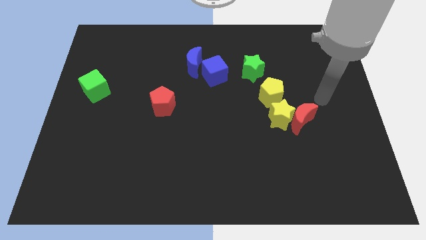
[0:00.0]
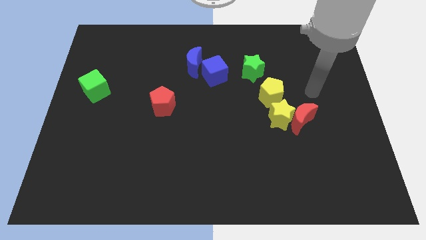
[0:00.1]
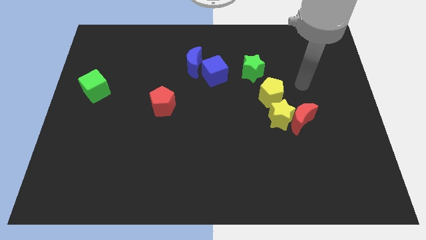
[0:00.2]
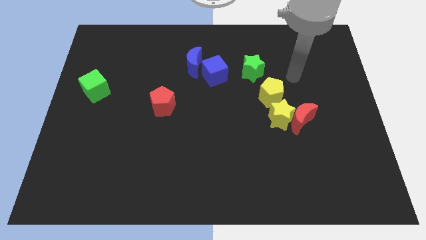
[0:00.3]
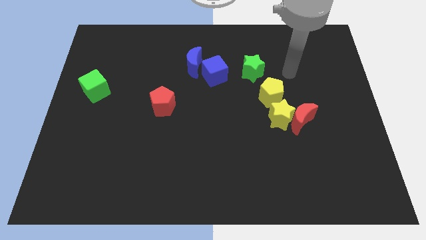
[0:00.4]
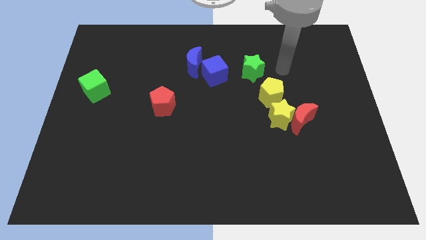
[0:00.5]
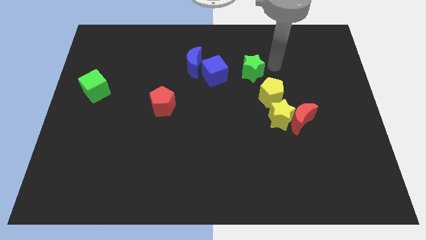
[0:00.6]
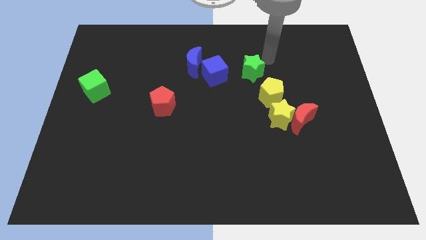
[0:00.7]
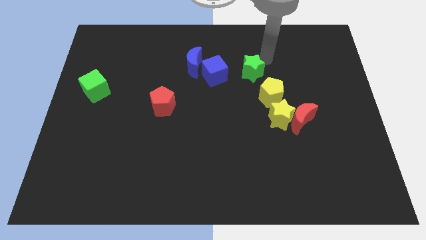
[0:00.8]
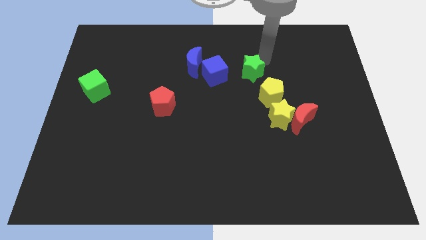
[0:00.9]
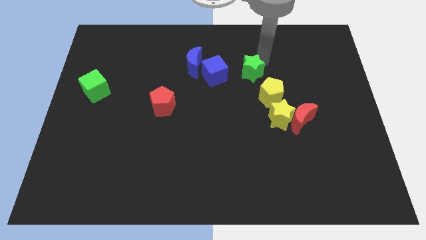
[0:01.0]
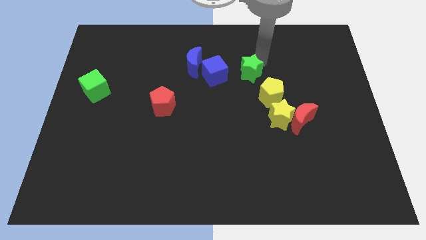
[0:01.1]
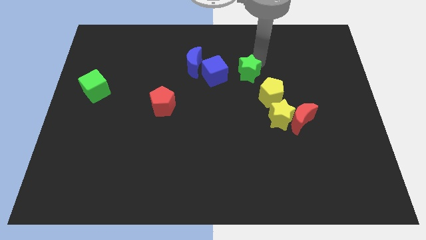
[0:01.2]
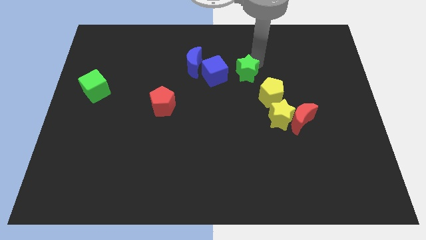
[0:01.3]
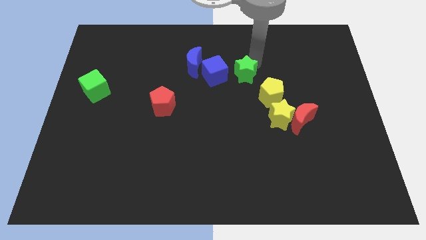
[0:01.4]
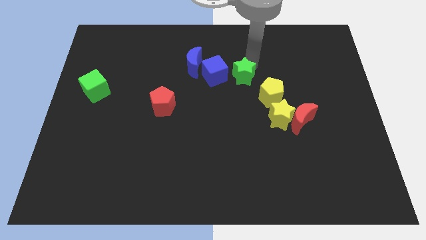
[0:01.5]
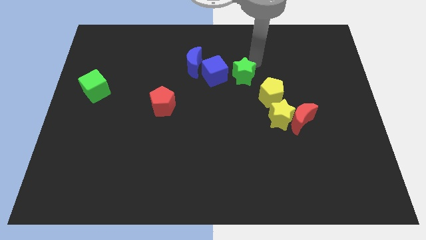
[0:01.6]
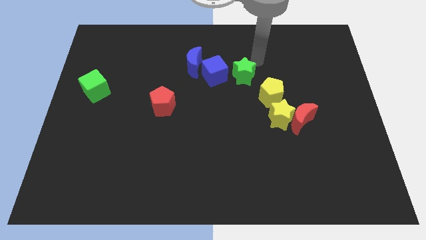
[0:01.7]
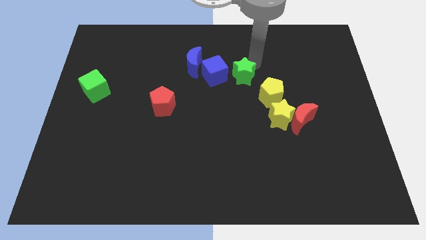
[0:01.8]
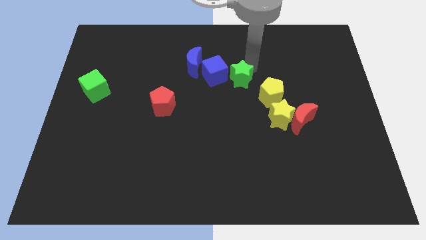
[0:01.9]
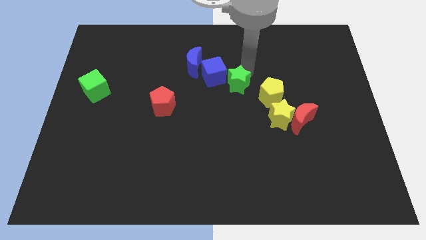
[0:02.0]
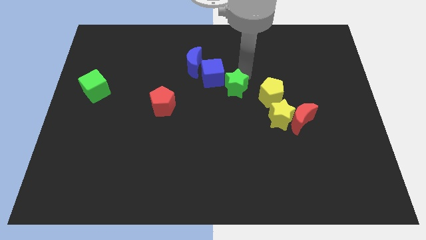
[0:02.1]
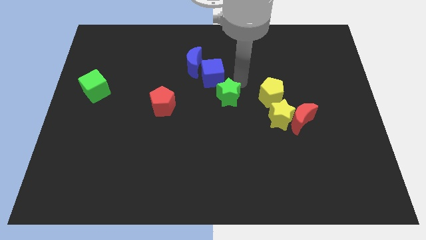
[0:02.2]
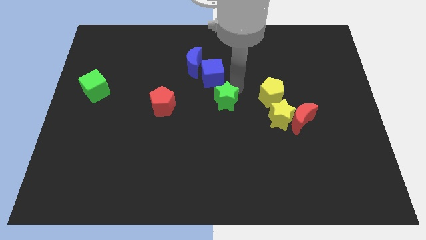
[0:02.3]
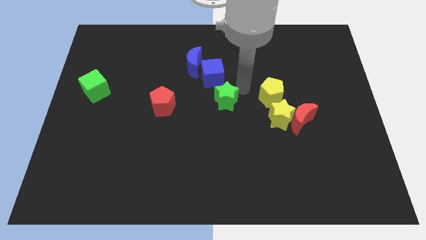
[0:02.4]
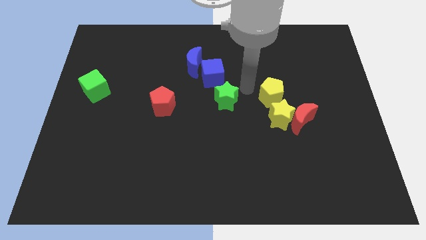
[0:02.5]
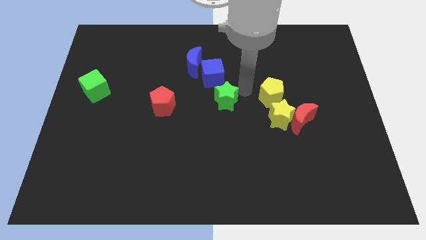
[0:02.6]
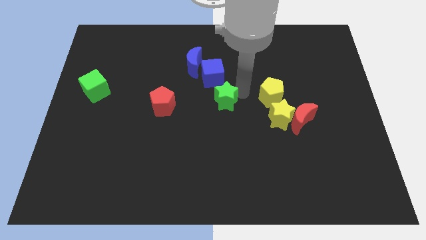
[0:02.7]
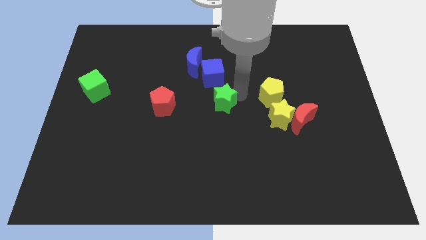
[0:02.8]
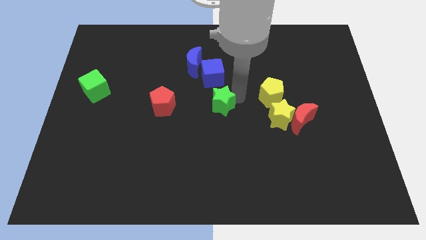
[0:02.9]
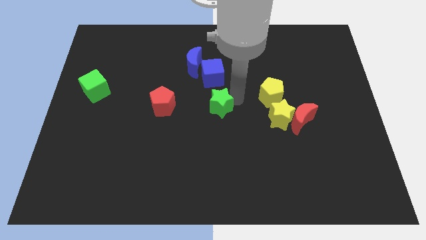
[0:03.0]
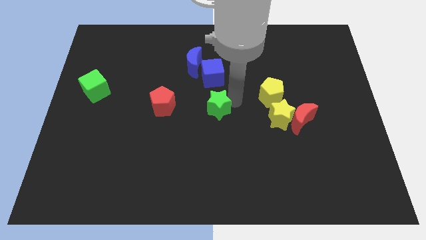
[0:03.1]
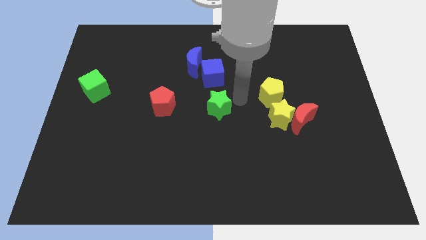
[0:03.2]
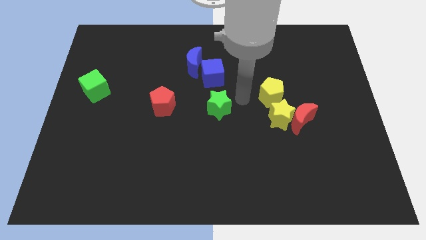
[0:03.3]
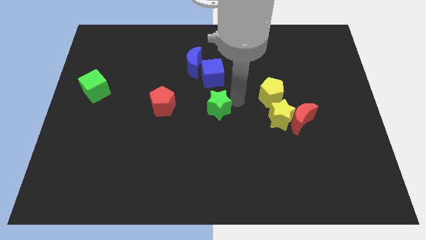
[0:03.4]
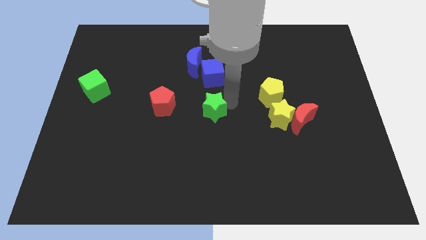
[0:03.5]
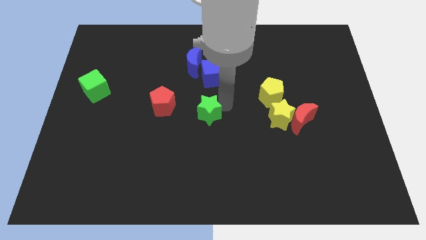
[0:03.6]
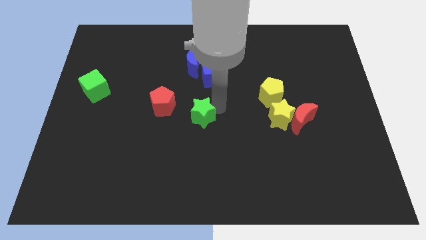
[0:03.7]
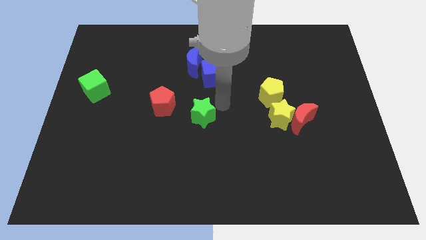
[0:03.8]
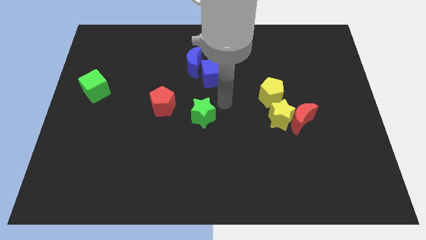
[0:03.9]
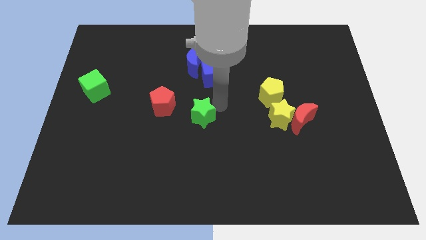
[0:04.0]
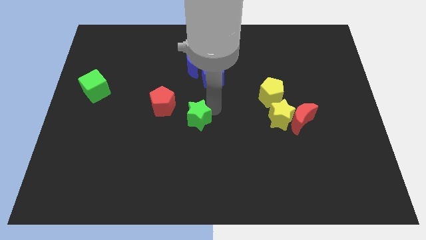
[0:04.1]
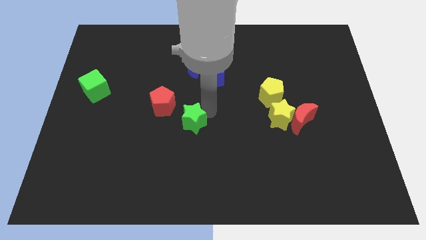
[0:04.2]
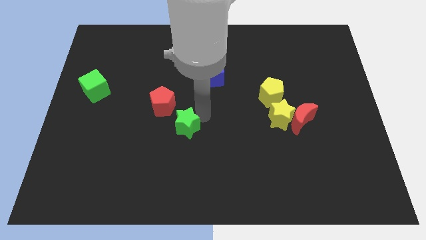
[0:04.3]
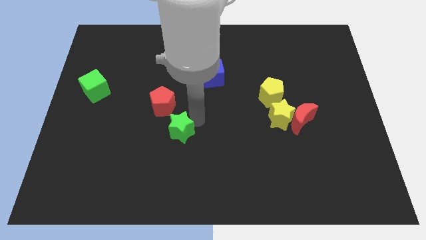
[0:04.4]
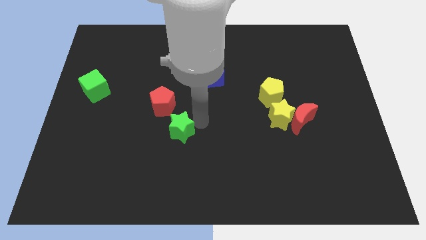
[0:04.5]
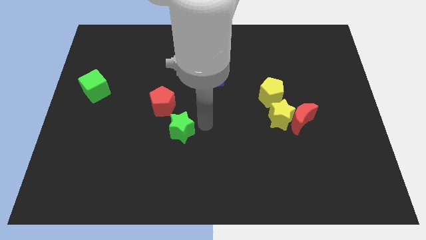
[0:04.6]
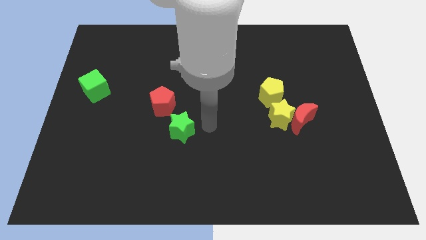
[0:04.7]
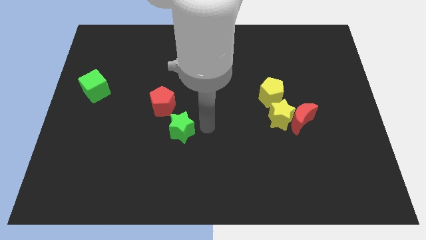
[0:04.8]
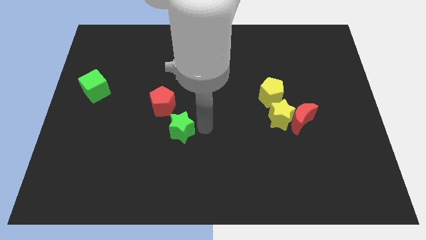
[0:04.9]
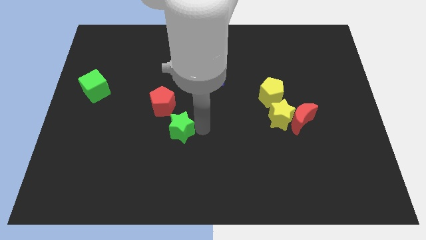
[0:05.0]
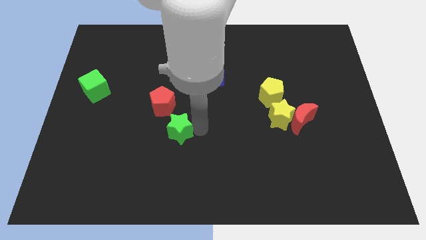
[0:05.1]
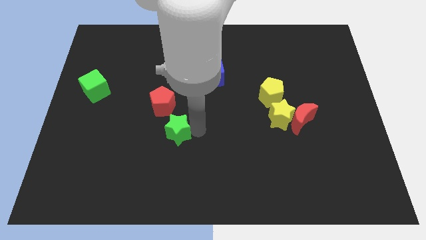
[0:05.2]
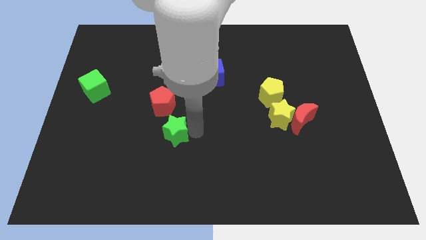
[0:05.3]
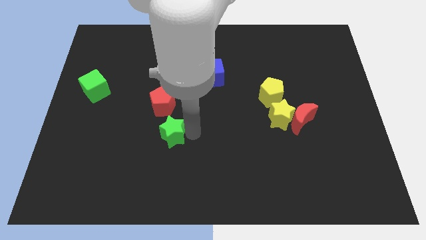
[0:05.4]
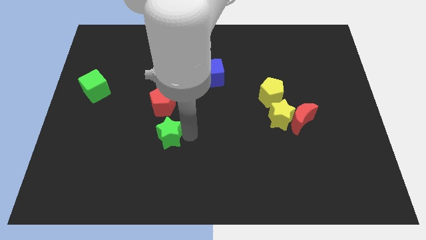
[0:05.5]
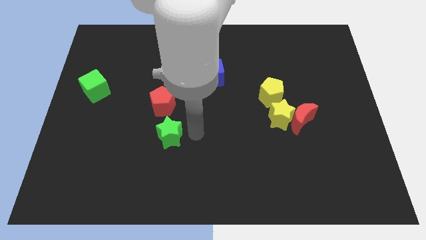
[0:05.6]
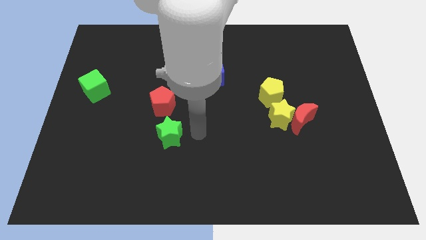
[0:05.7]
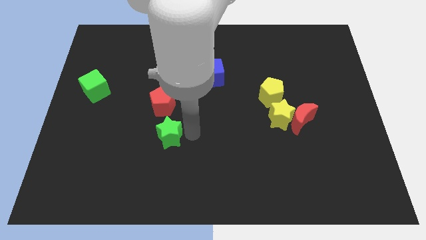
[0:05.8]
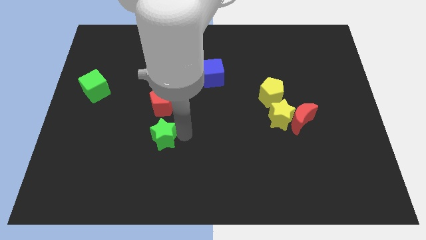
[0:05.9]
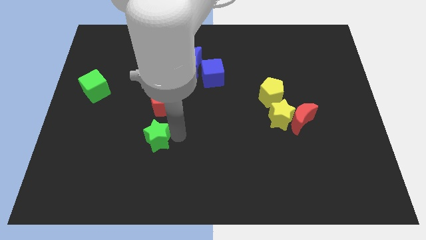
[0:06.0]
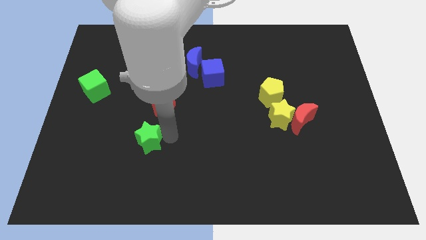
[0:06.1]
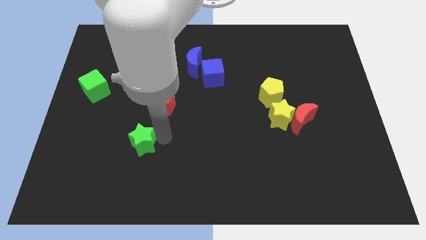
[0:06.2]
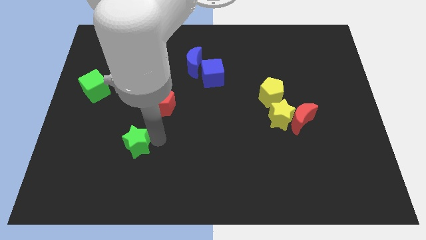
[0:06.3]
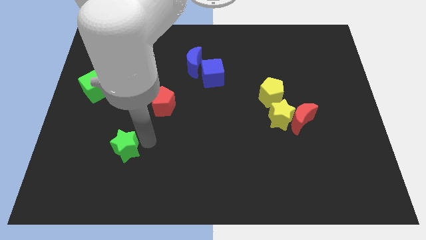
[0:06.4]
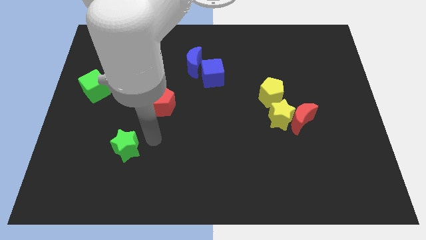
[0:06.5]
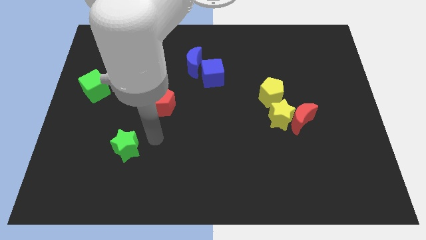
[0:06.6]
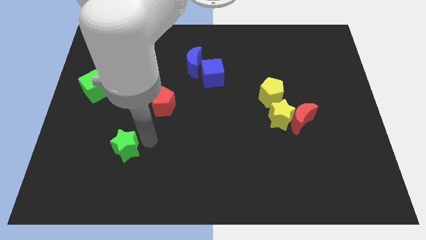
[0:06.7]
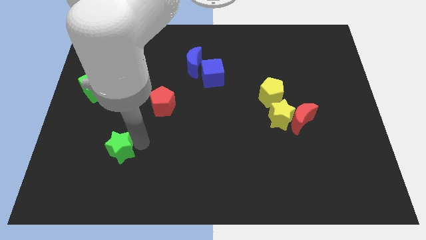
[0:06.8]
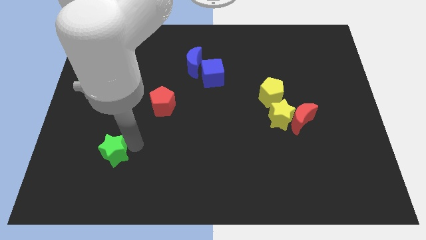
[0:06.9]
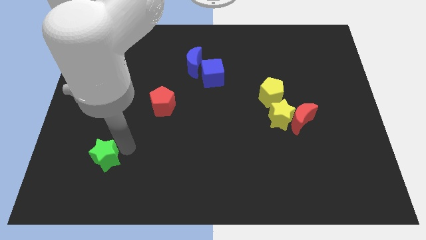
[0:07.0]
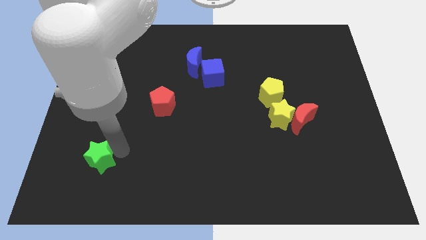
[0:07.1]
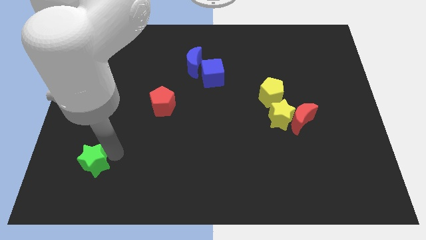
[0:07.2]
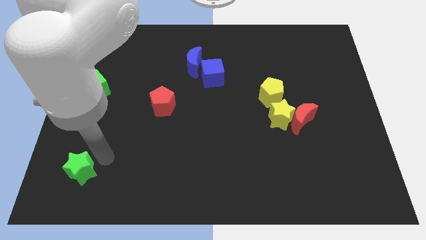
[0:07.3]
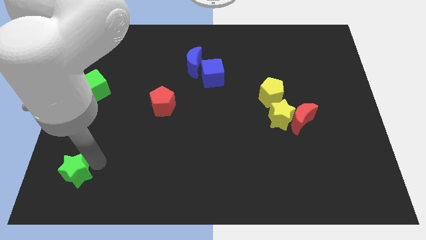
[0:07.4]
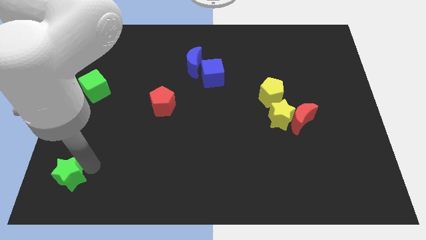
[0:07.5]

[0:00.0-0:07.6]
slide the green star to the bottom left
